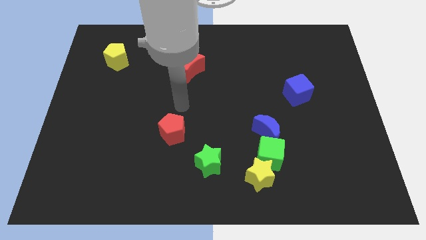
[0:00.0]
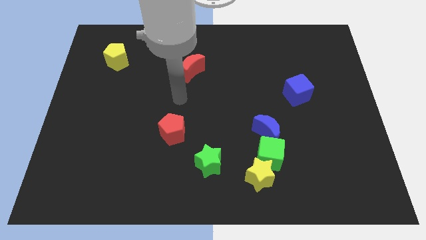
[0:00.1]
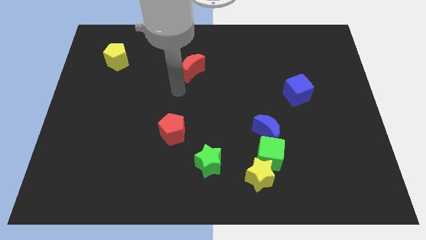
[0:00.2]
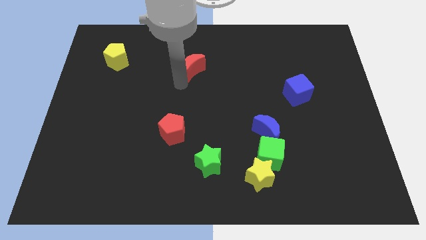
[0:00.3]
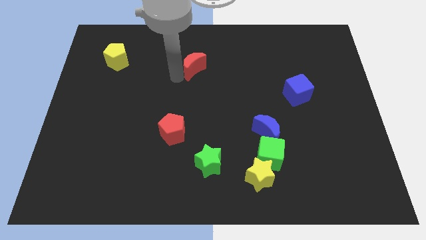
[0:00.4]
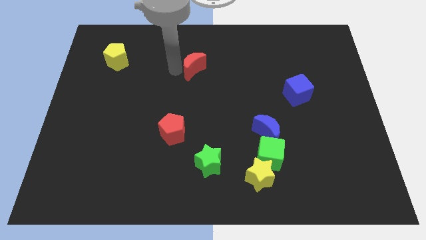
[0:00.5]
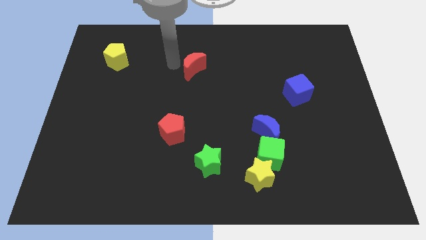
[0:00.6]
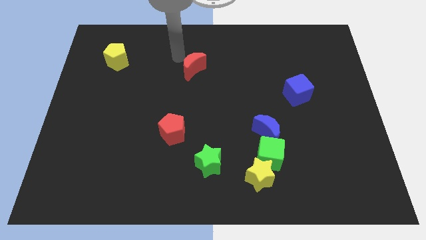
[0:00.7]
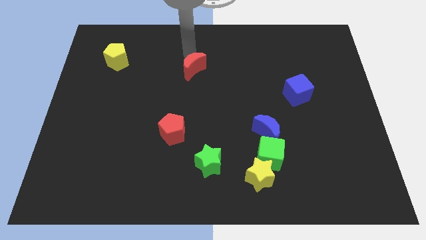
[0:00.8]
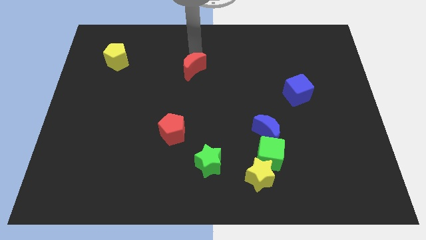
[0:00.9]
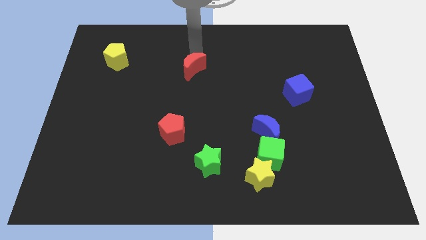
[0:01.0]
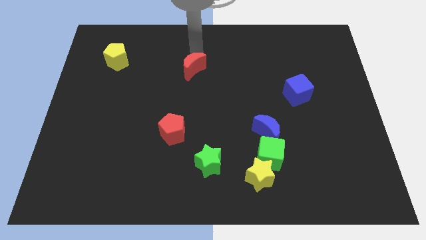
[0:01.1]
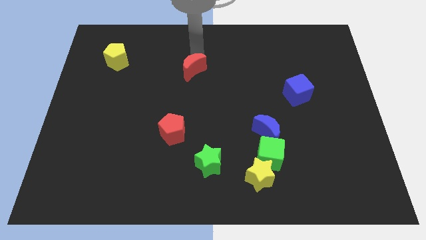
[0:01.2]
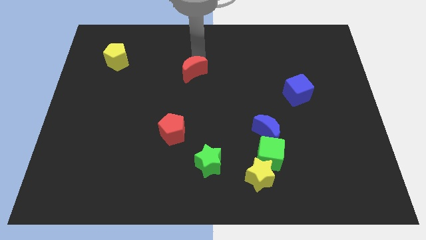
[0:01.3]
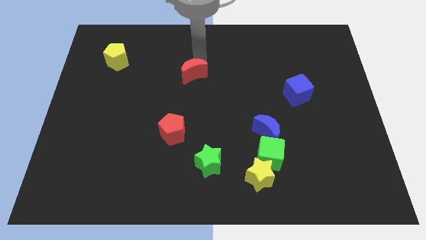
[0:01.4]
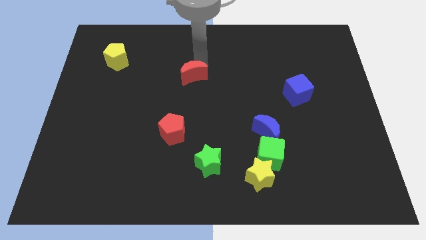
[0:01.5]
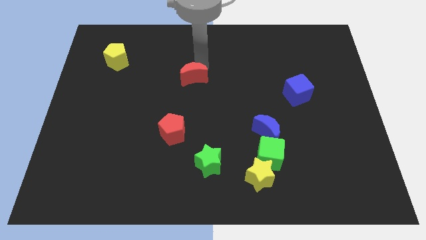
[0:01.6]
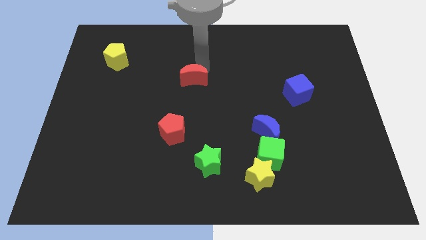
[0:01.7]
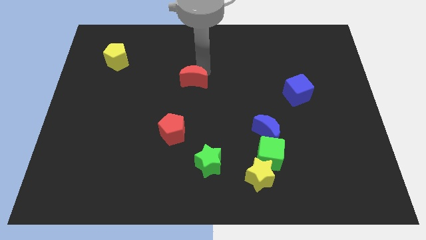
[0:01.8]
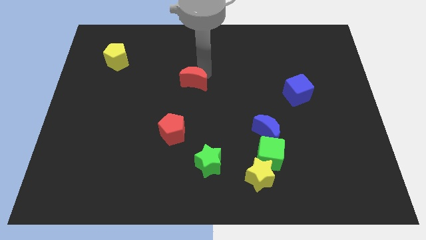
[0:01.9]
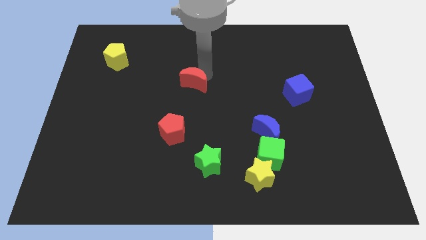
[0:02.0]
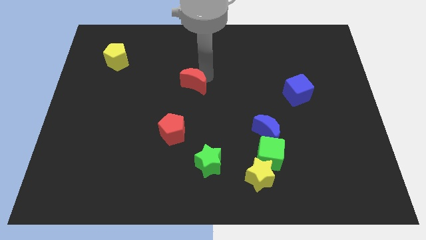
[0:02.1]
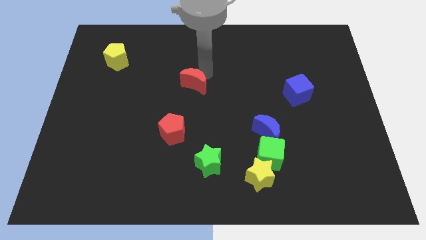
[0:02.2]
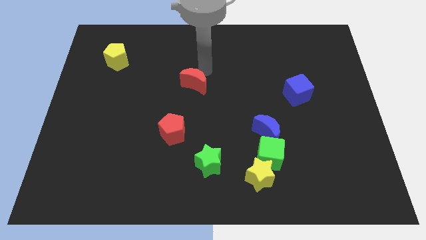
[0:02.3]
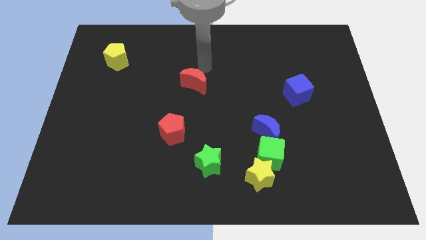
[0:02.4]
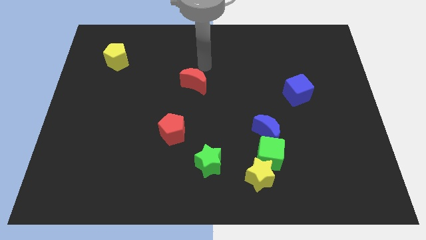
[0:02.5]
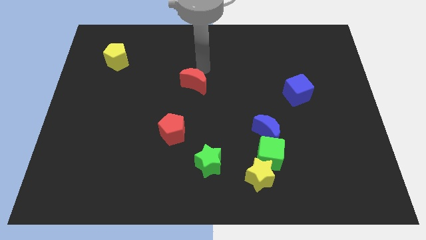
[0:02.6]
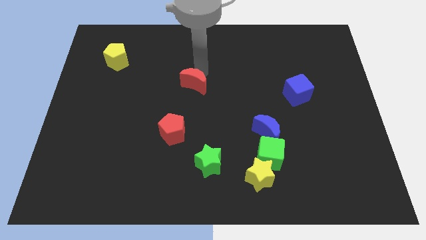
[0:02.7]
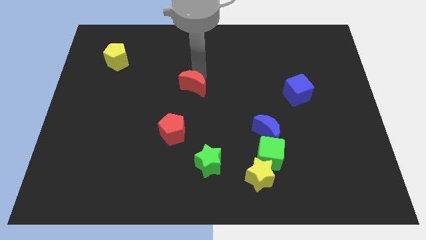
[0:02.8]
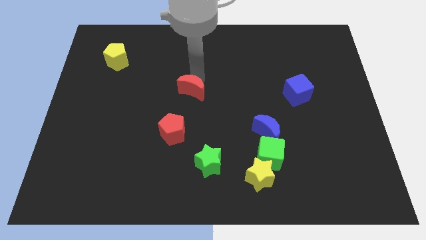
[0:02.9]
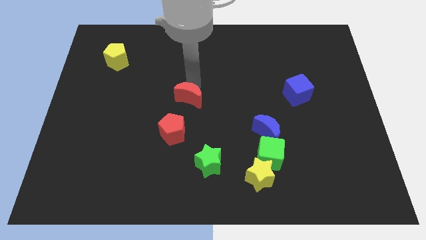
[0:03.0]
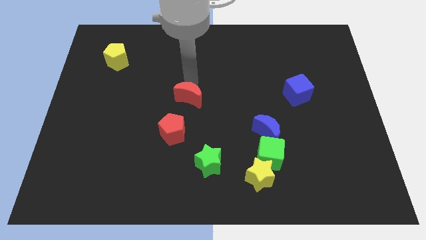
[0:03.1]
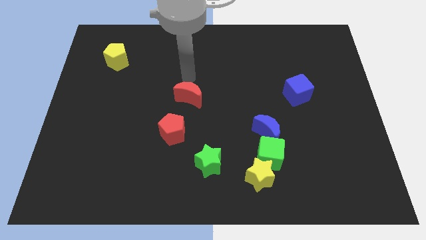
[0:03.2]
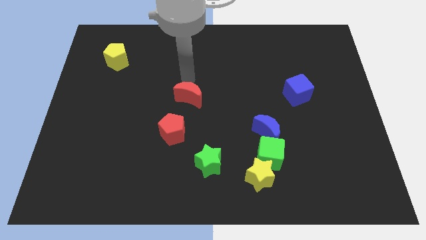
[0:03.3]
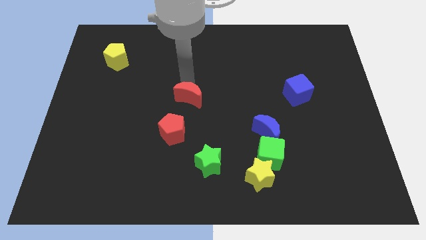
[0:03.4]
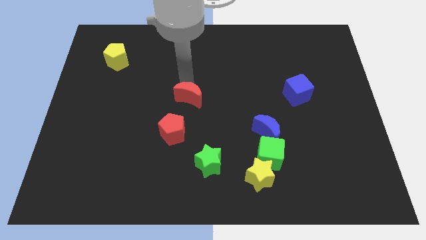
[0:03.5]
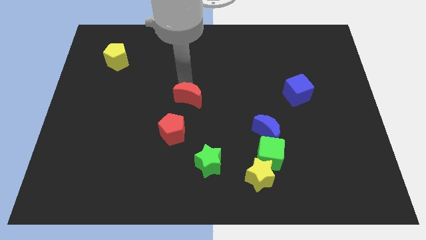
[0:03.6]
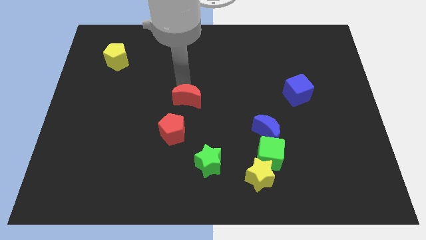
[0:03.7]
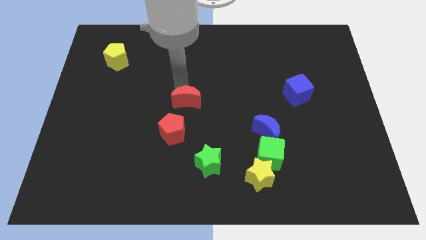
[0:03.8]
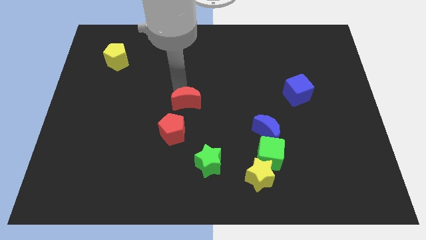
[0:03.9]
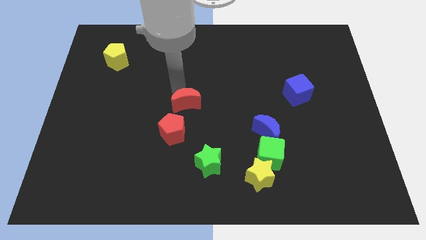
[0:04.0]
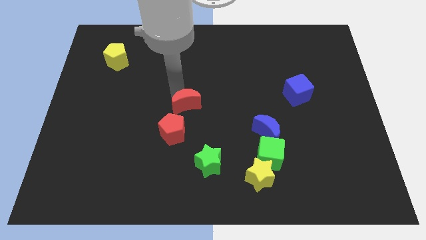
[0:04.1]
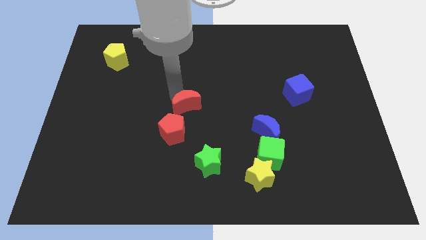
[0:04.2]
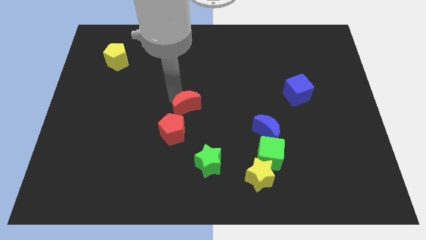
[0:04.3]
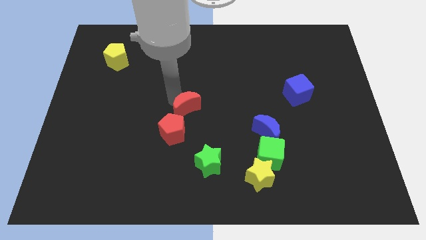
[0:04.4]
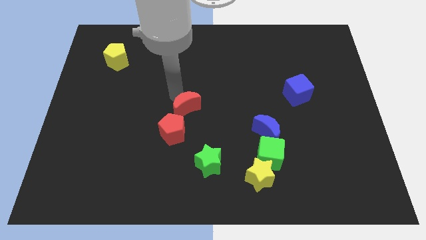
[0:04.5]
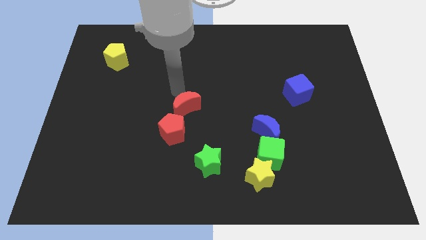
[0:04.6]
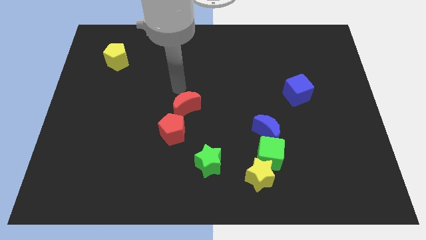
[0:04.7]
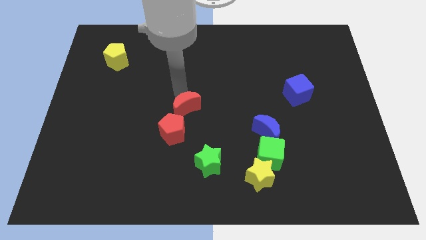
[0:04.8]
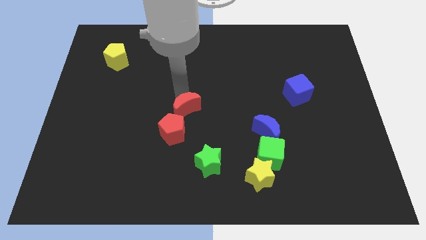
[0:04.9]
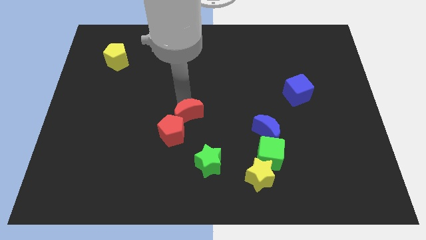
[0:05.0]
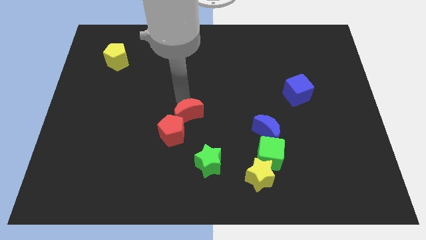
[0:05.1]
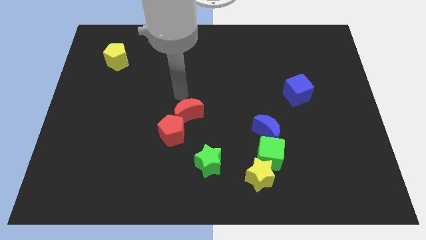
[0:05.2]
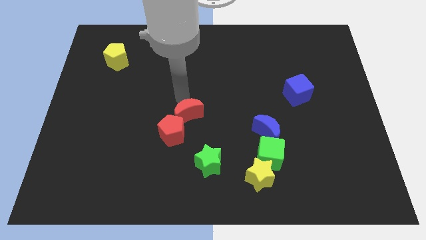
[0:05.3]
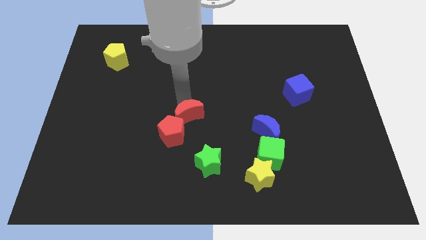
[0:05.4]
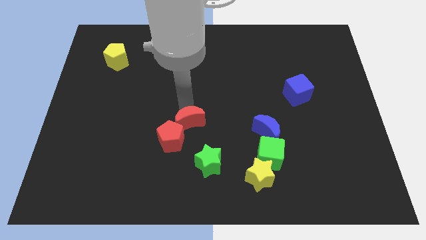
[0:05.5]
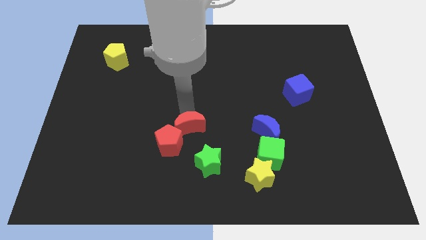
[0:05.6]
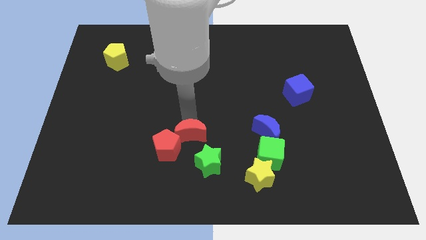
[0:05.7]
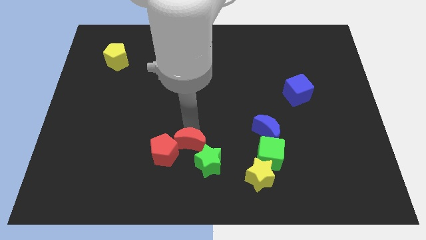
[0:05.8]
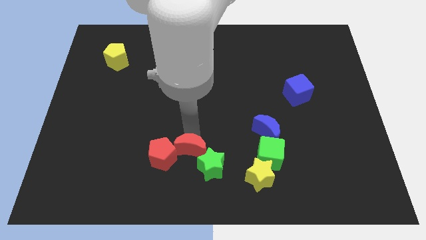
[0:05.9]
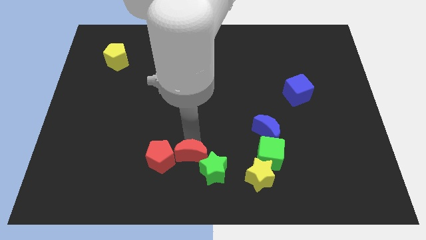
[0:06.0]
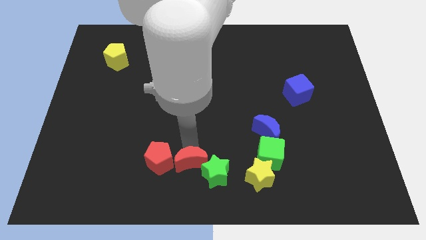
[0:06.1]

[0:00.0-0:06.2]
slide the red moon to the left of the yellow star

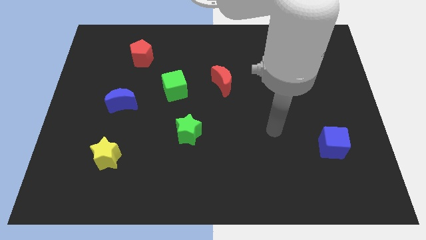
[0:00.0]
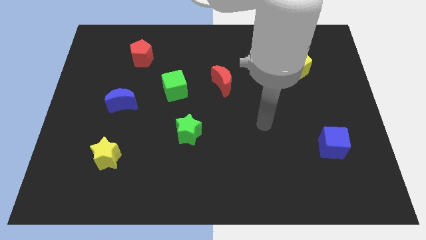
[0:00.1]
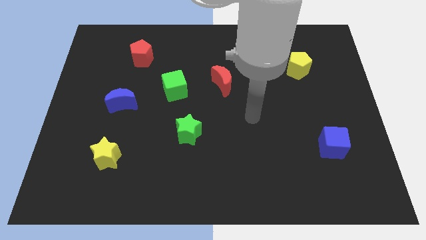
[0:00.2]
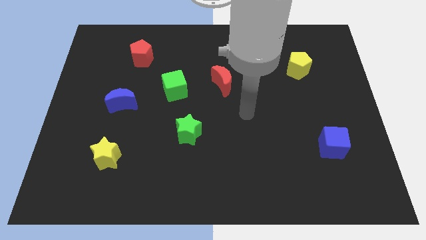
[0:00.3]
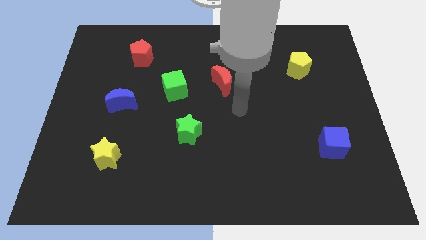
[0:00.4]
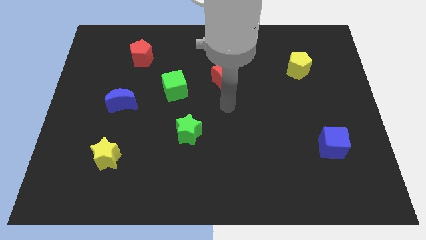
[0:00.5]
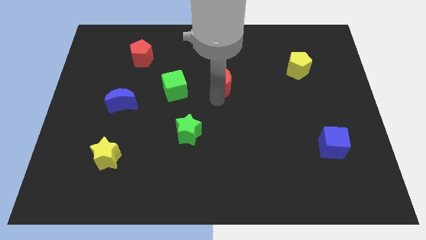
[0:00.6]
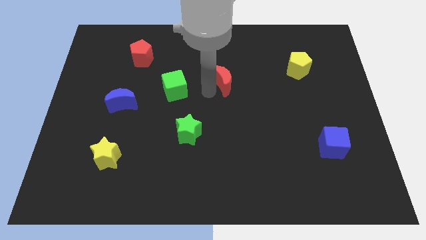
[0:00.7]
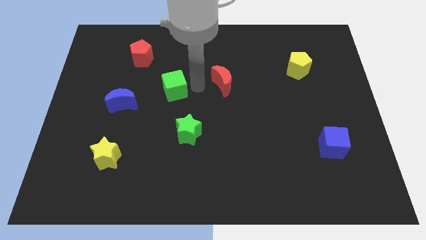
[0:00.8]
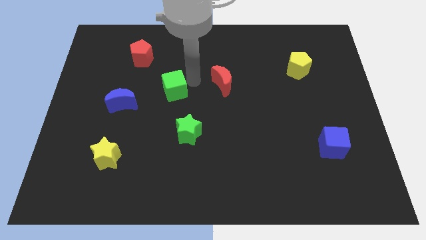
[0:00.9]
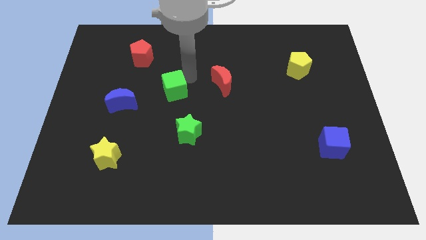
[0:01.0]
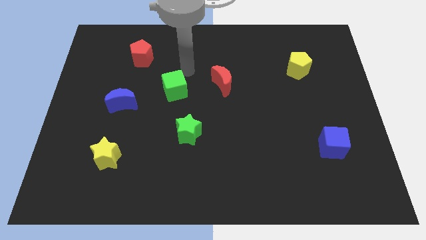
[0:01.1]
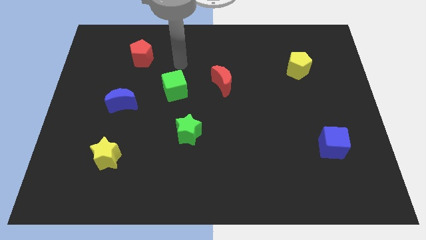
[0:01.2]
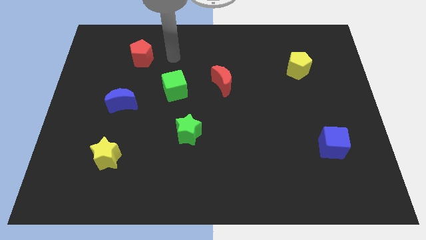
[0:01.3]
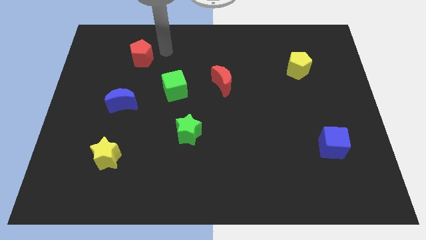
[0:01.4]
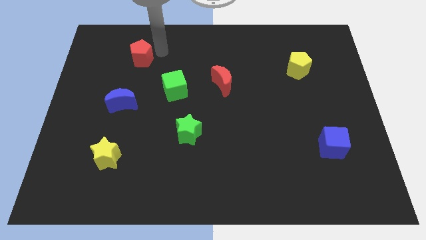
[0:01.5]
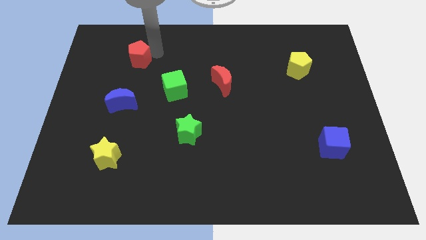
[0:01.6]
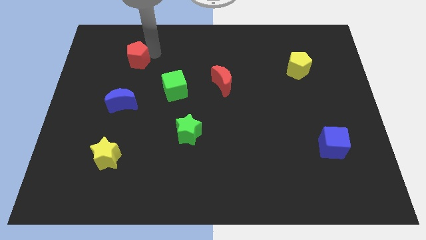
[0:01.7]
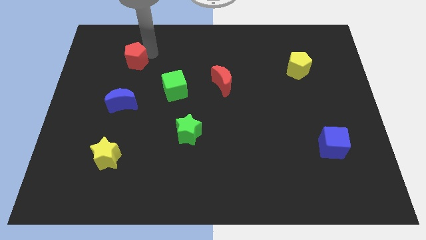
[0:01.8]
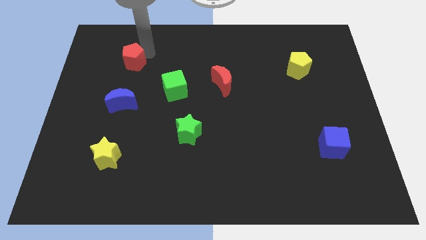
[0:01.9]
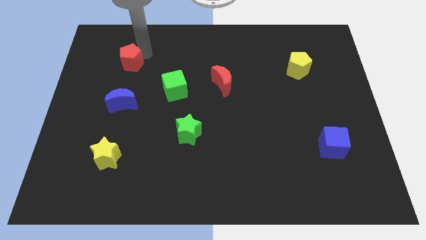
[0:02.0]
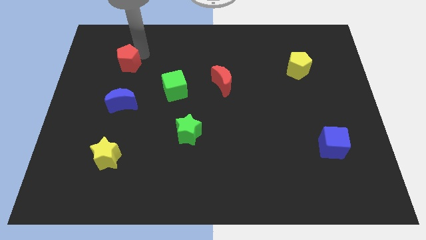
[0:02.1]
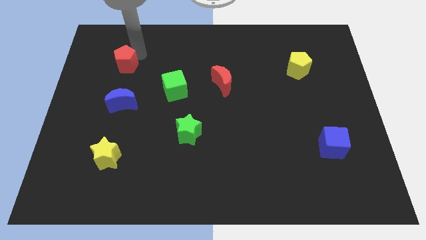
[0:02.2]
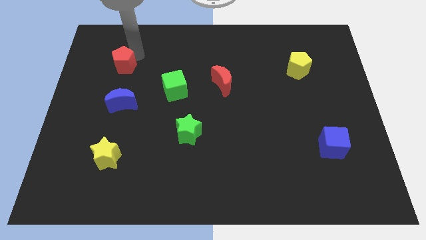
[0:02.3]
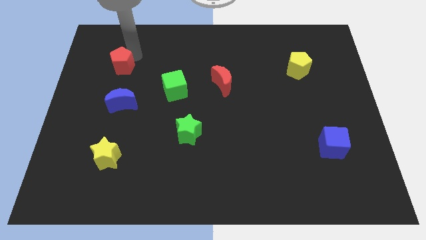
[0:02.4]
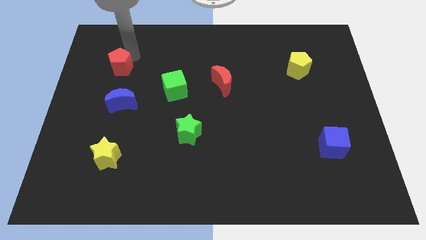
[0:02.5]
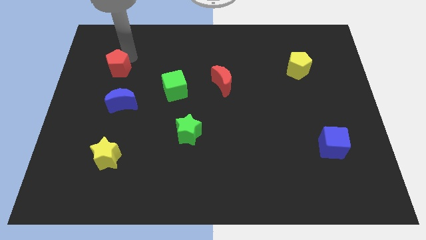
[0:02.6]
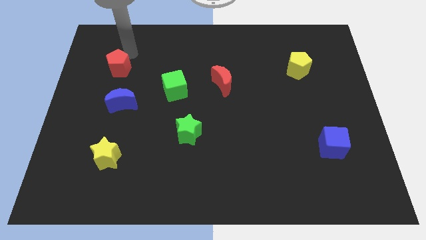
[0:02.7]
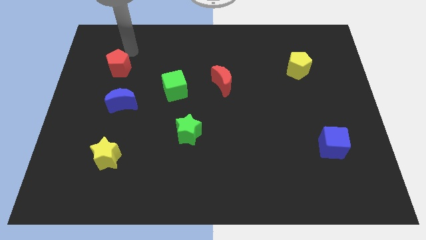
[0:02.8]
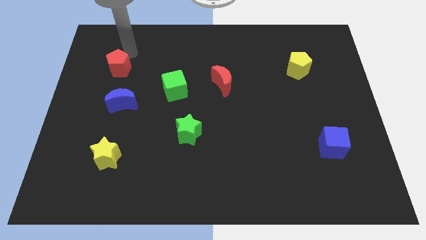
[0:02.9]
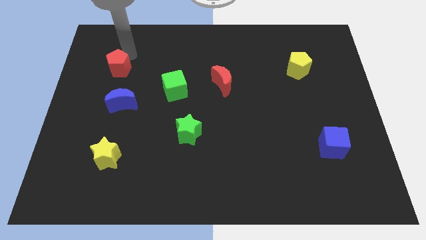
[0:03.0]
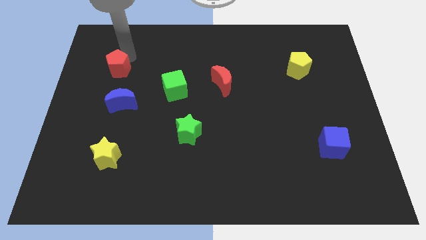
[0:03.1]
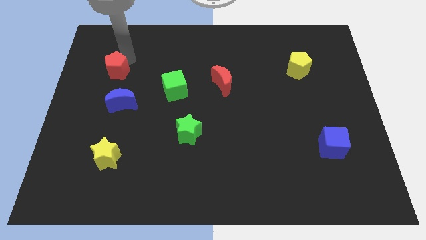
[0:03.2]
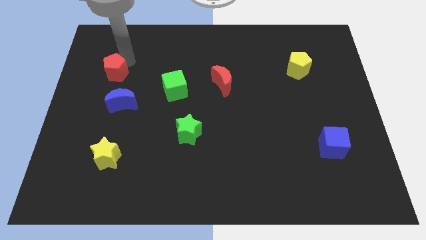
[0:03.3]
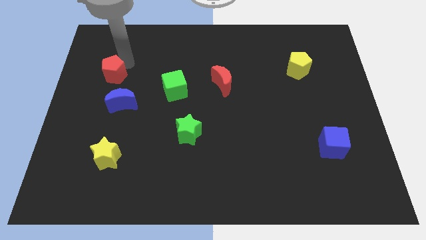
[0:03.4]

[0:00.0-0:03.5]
move the red pentagon to the top left side of the blue moon
